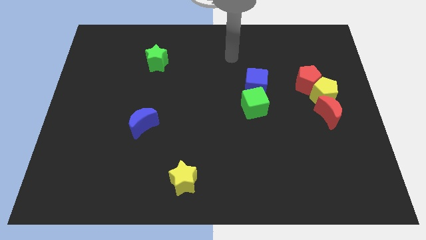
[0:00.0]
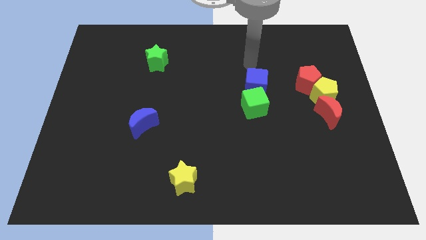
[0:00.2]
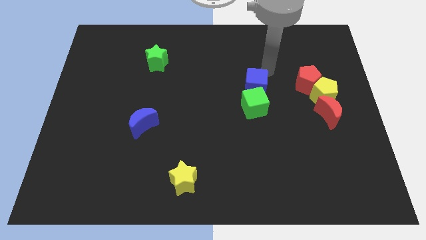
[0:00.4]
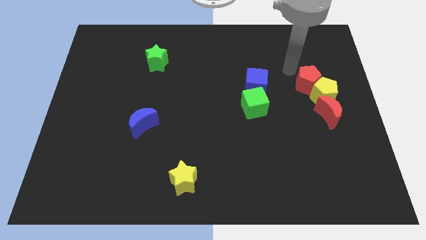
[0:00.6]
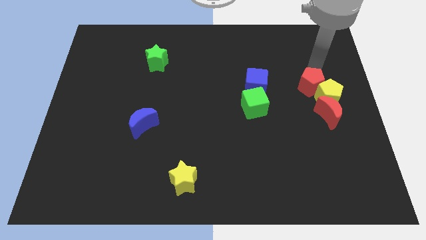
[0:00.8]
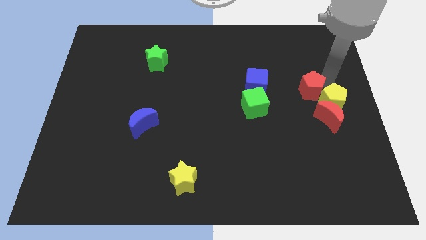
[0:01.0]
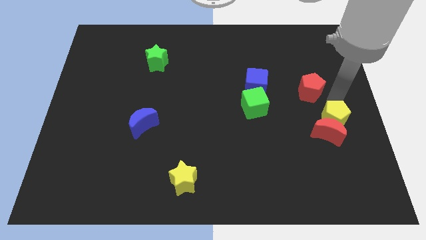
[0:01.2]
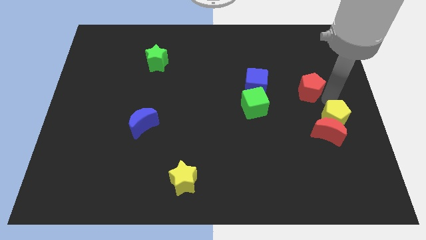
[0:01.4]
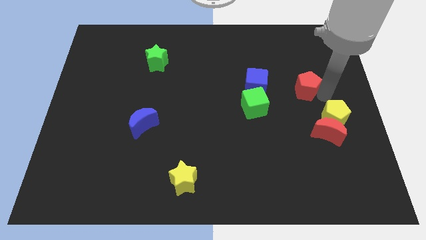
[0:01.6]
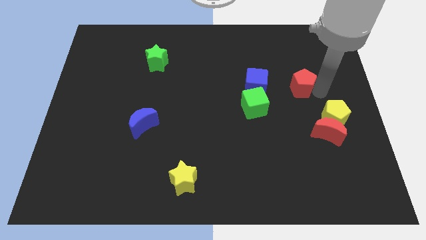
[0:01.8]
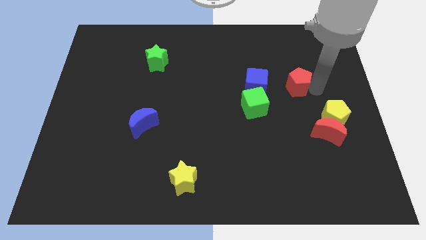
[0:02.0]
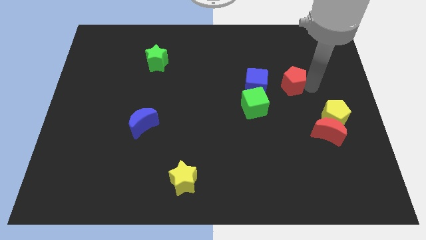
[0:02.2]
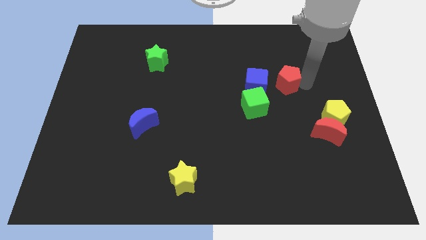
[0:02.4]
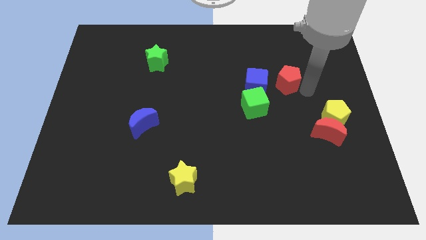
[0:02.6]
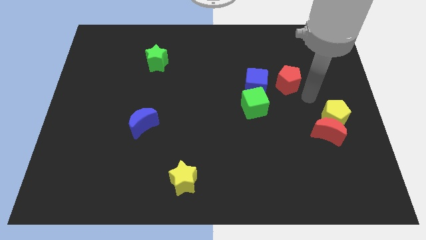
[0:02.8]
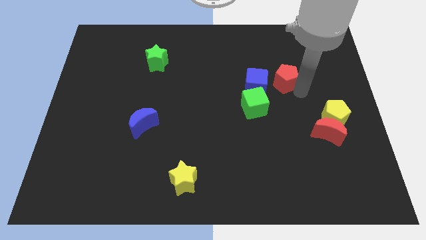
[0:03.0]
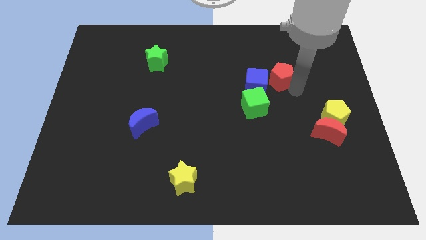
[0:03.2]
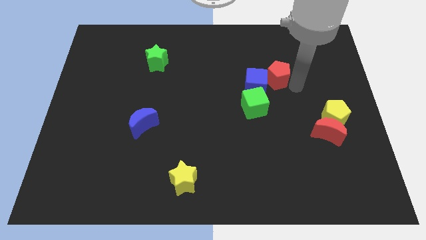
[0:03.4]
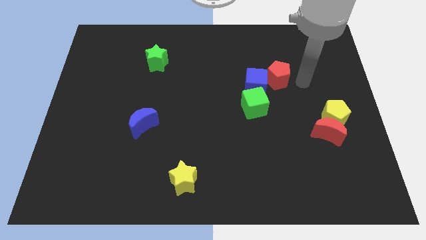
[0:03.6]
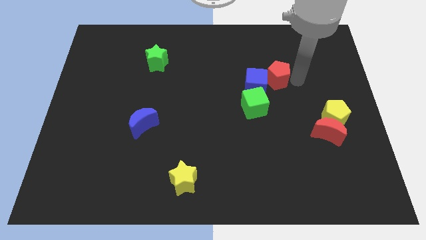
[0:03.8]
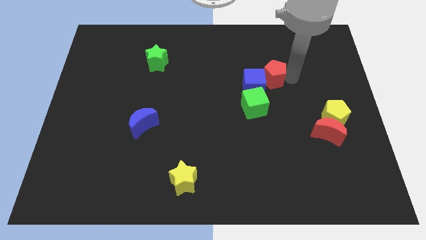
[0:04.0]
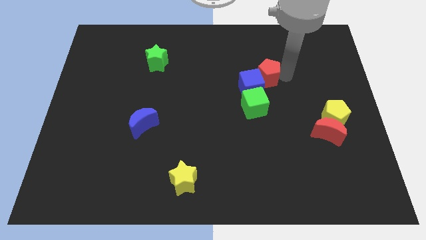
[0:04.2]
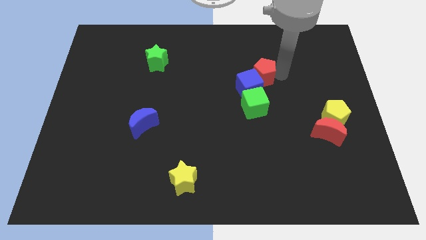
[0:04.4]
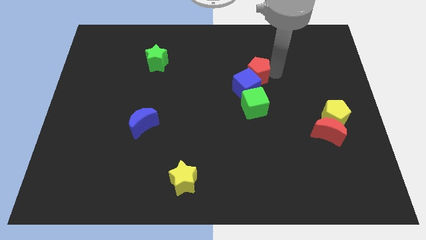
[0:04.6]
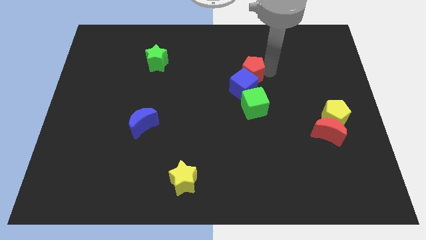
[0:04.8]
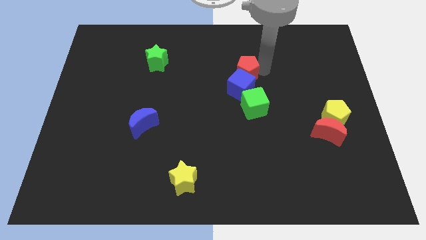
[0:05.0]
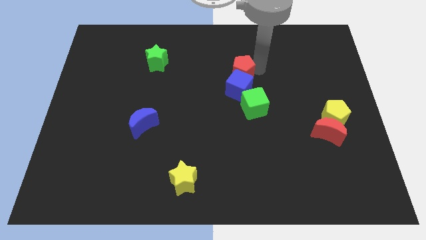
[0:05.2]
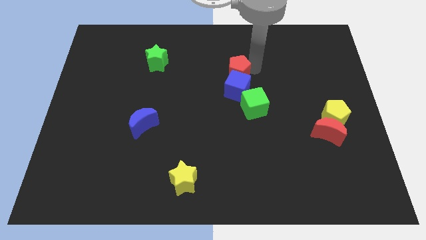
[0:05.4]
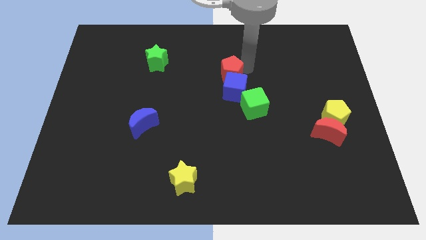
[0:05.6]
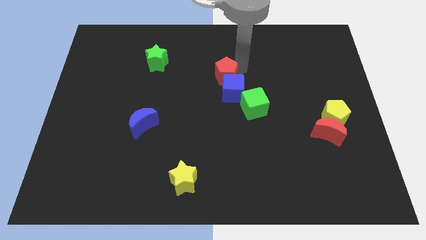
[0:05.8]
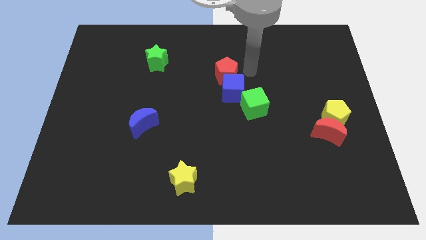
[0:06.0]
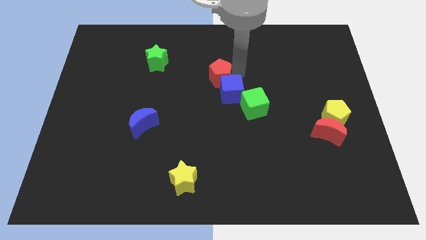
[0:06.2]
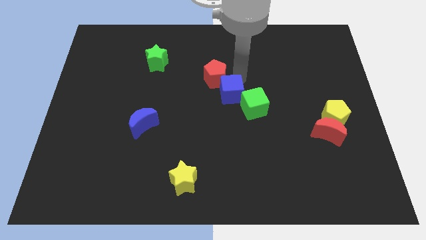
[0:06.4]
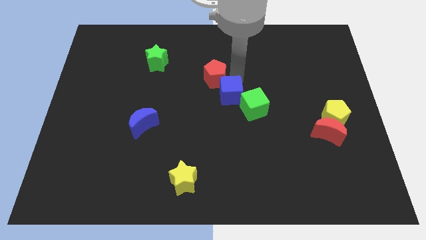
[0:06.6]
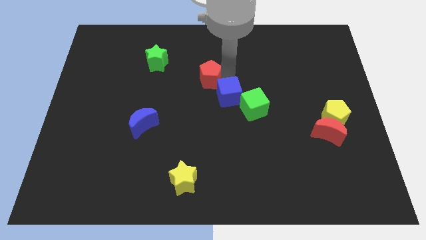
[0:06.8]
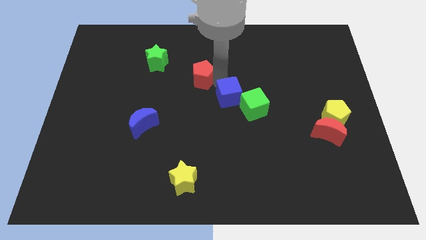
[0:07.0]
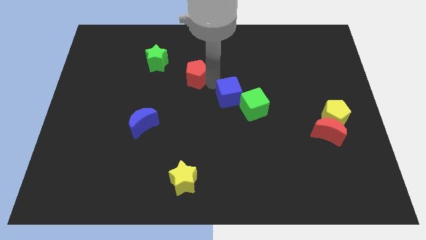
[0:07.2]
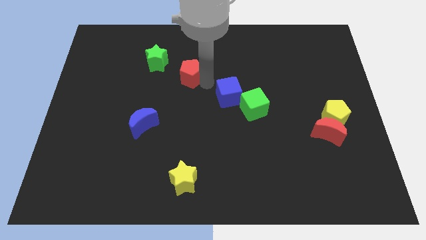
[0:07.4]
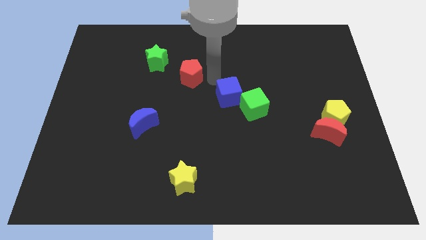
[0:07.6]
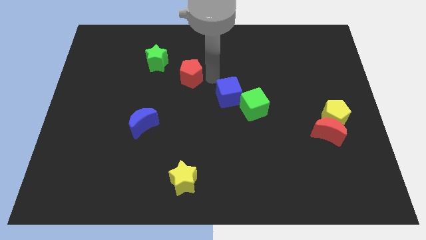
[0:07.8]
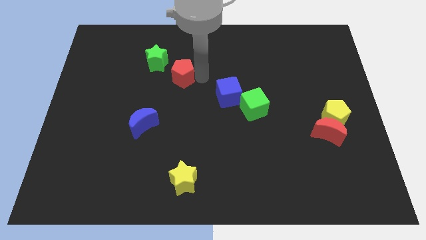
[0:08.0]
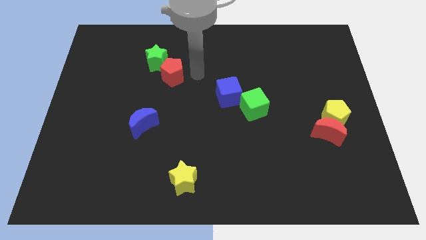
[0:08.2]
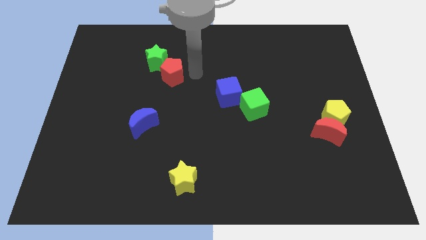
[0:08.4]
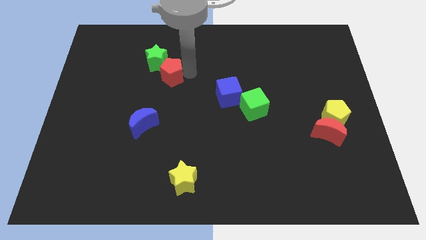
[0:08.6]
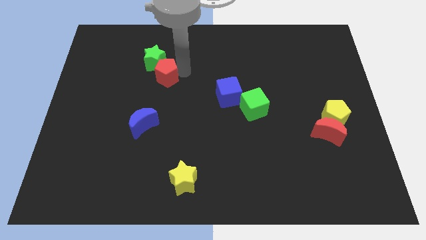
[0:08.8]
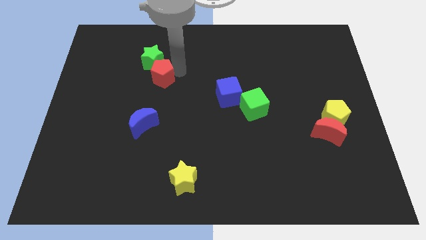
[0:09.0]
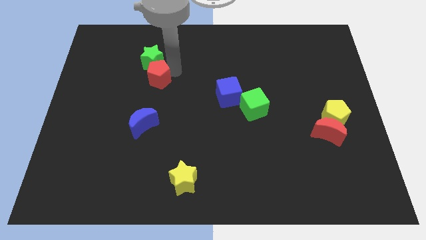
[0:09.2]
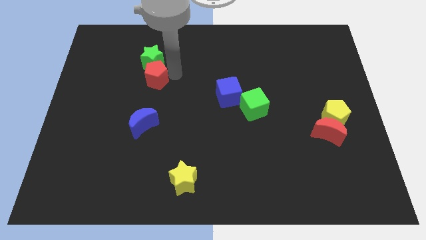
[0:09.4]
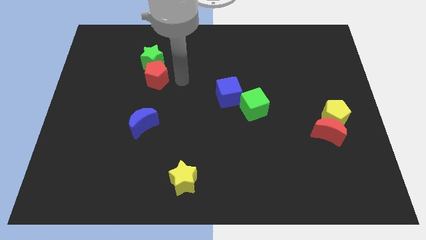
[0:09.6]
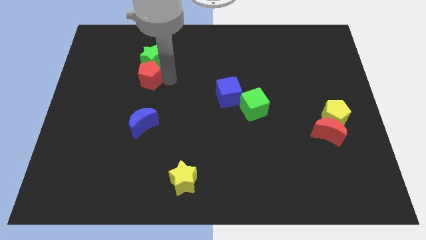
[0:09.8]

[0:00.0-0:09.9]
push the red pentagon to the bottom left of the green star

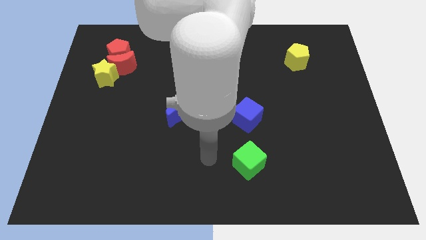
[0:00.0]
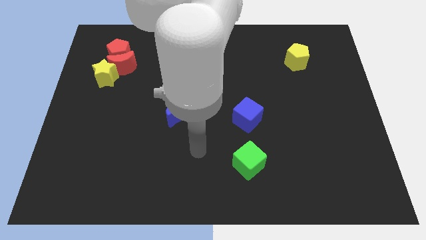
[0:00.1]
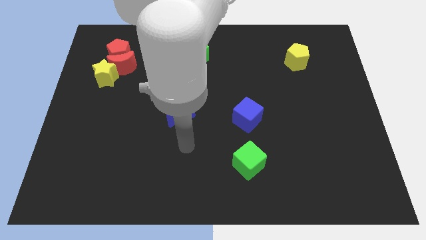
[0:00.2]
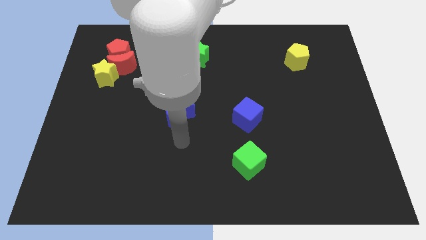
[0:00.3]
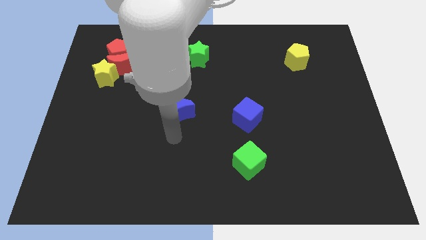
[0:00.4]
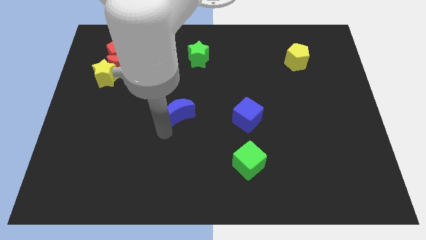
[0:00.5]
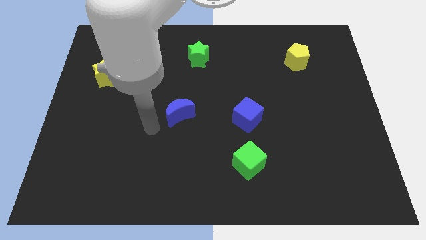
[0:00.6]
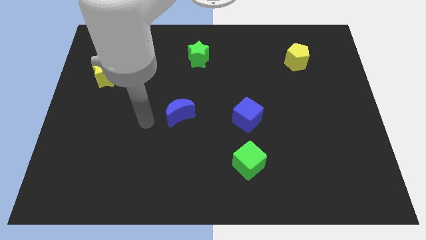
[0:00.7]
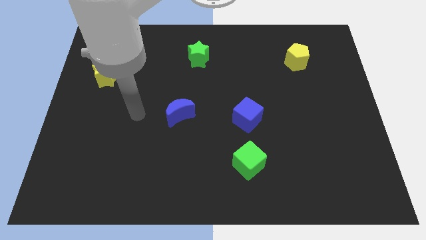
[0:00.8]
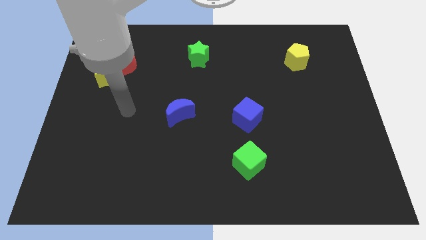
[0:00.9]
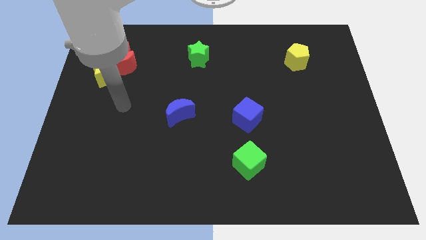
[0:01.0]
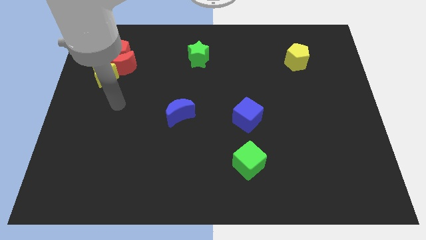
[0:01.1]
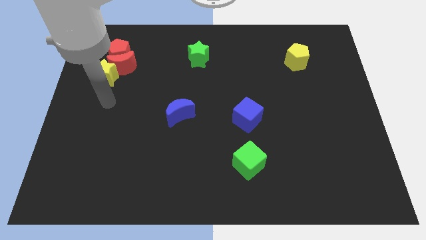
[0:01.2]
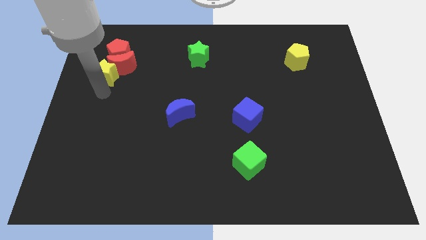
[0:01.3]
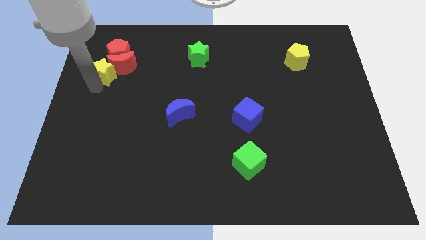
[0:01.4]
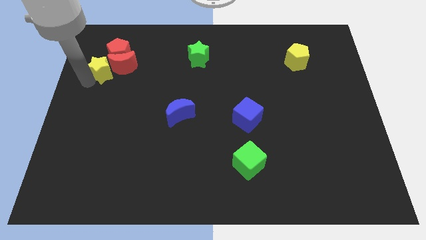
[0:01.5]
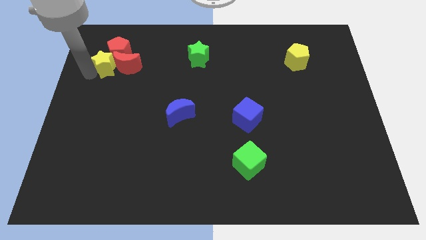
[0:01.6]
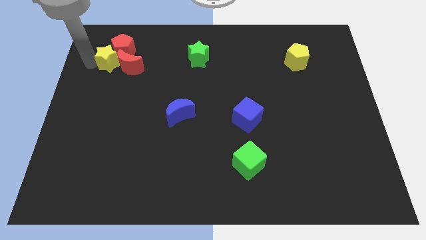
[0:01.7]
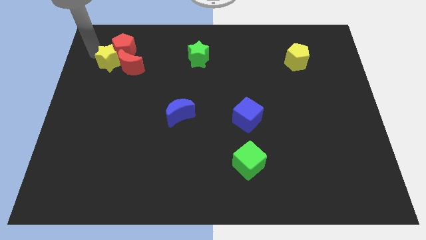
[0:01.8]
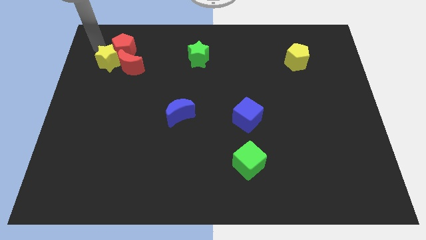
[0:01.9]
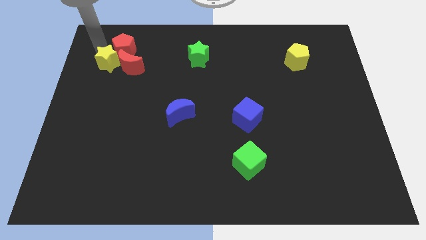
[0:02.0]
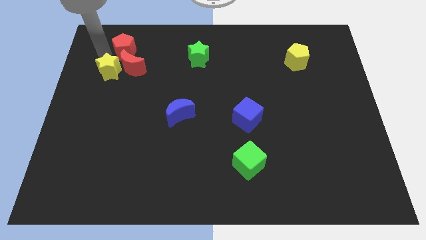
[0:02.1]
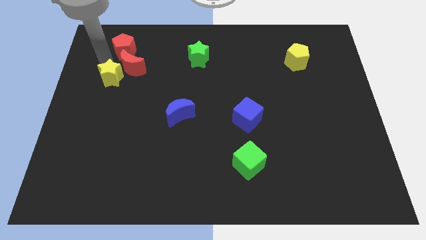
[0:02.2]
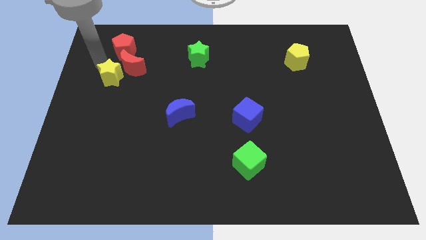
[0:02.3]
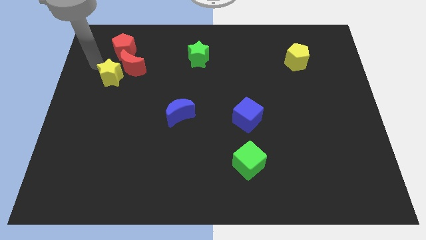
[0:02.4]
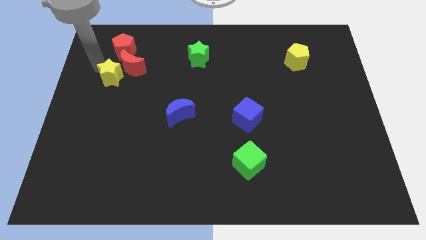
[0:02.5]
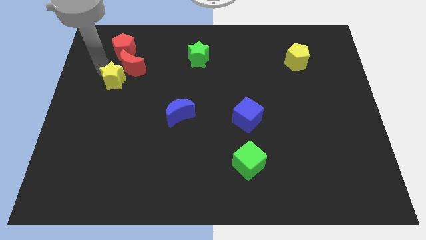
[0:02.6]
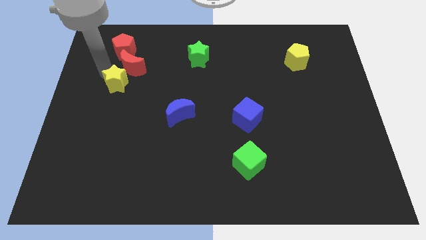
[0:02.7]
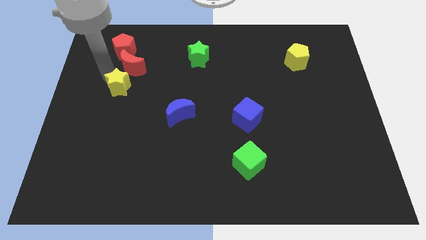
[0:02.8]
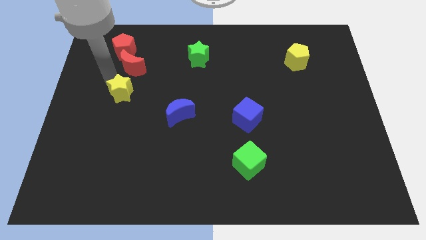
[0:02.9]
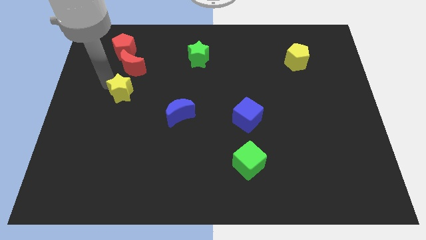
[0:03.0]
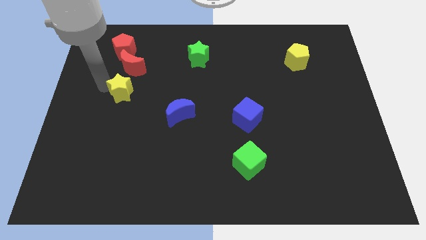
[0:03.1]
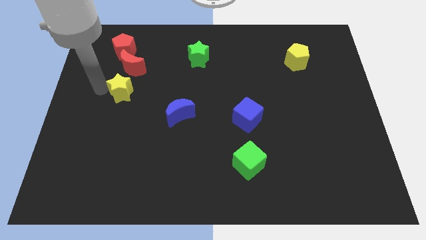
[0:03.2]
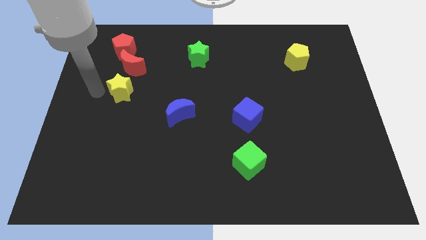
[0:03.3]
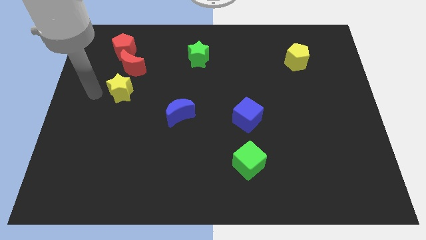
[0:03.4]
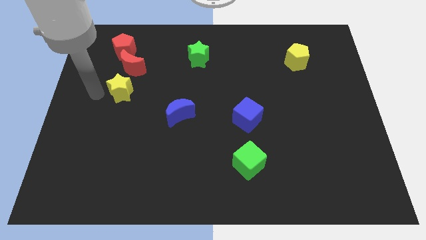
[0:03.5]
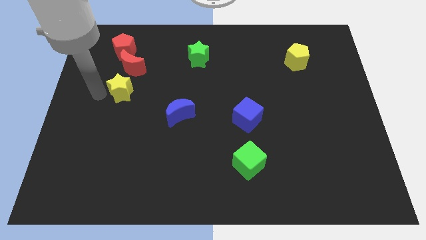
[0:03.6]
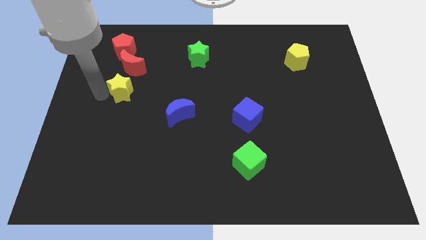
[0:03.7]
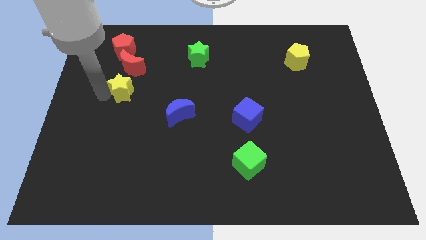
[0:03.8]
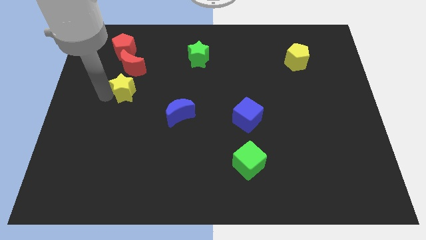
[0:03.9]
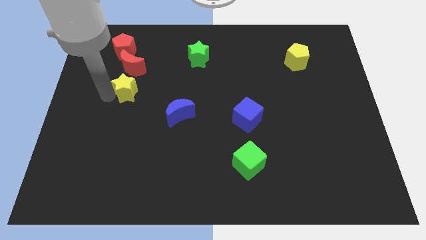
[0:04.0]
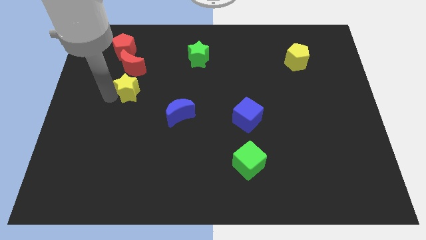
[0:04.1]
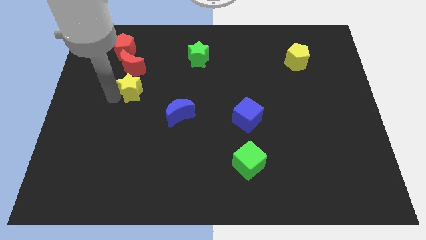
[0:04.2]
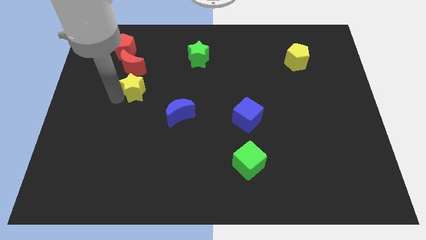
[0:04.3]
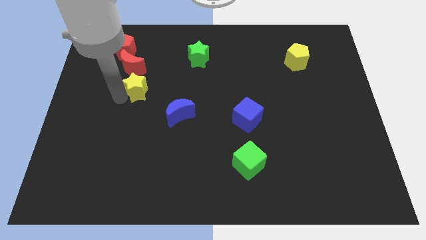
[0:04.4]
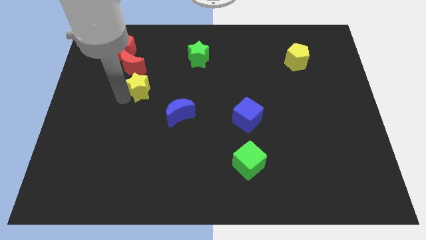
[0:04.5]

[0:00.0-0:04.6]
slide the yellow star diagonally up and to the left of the blue moon
